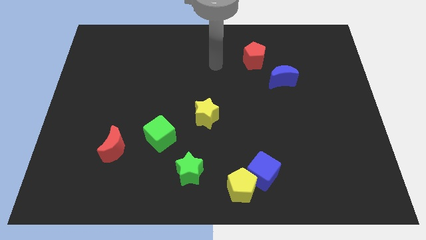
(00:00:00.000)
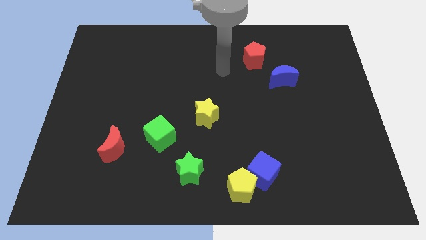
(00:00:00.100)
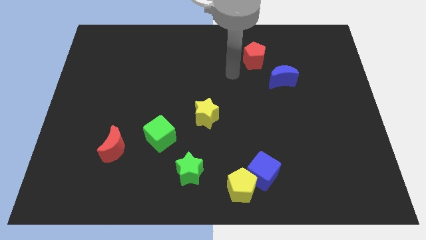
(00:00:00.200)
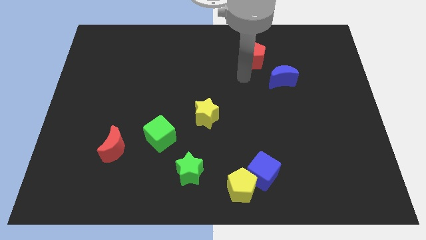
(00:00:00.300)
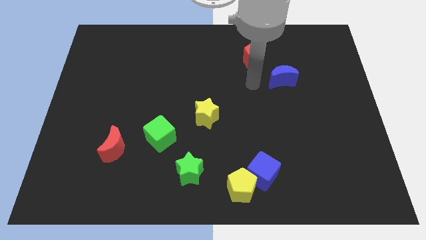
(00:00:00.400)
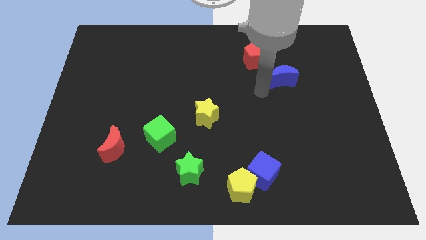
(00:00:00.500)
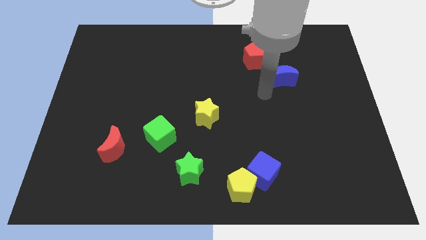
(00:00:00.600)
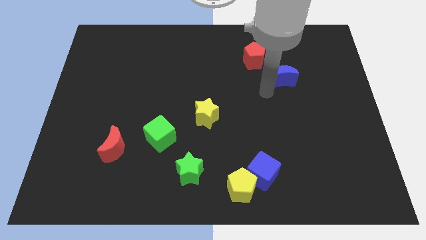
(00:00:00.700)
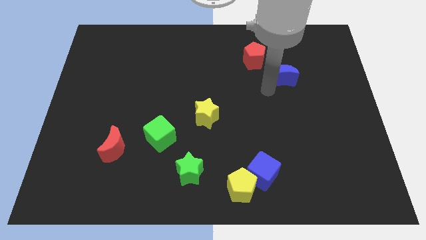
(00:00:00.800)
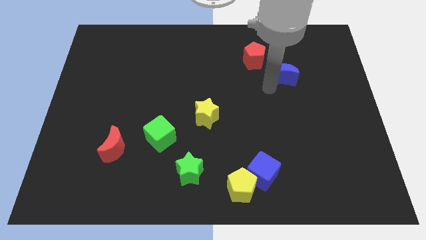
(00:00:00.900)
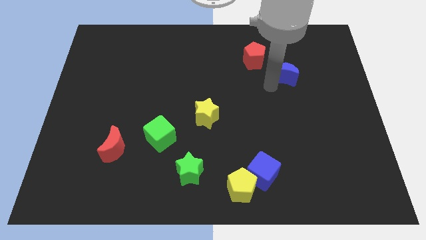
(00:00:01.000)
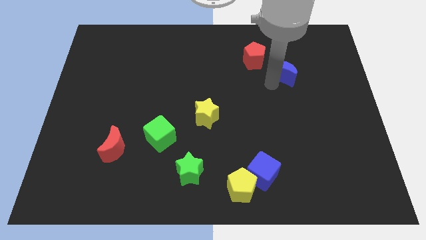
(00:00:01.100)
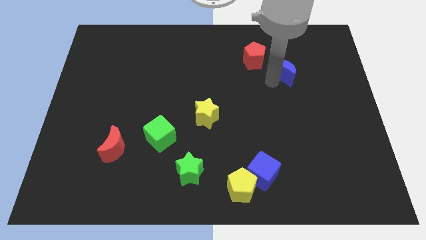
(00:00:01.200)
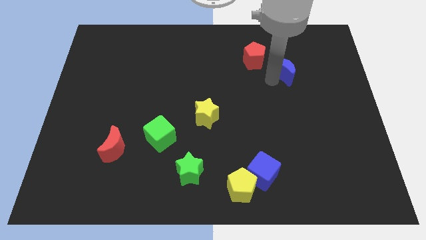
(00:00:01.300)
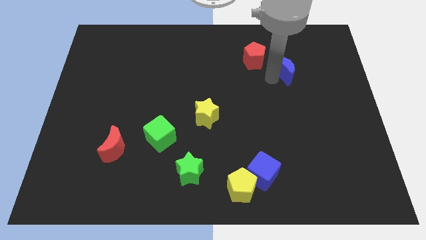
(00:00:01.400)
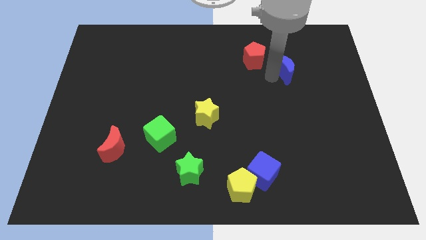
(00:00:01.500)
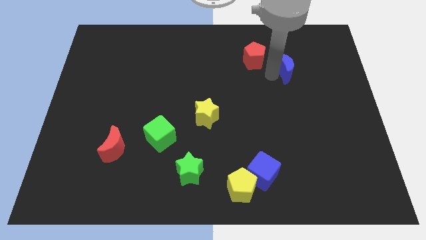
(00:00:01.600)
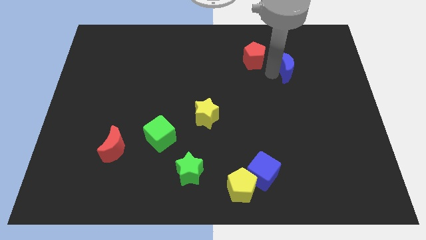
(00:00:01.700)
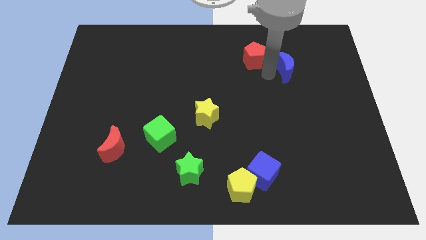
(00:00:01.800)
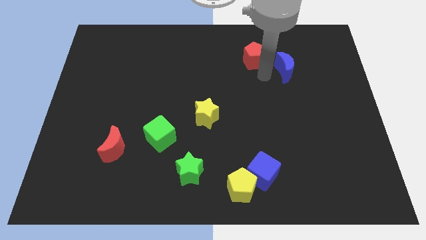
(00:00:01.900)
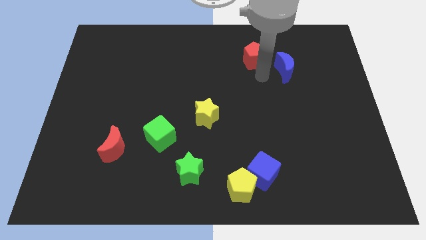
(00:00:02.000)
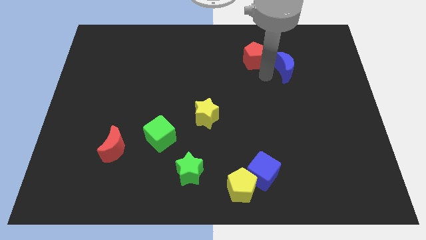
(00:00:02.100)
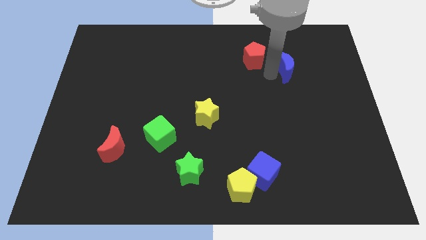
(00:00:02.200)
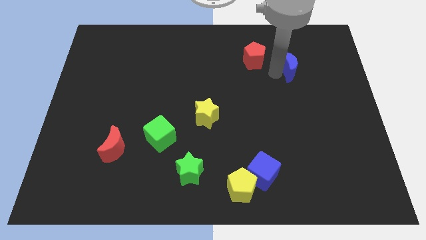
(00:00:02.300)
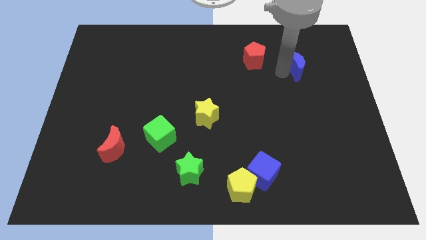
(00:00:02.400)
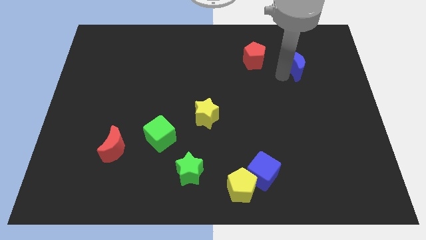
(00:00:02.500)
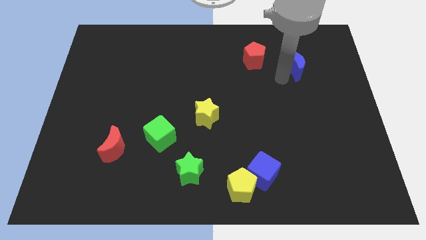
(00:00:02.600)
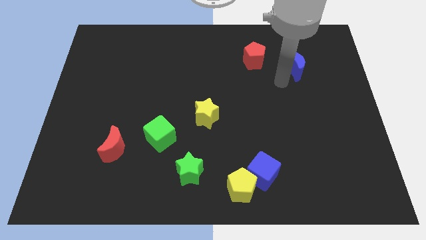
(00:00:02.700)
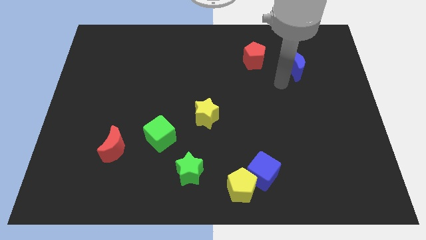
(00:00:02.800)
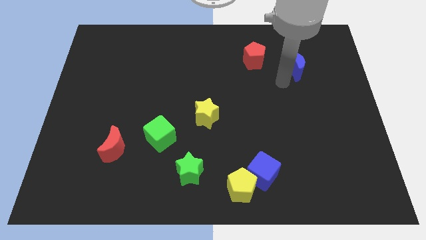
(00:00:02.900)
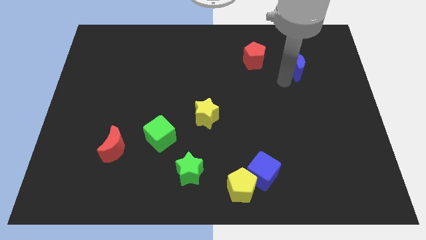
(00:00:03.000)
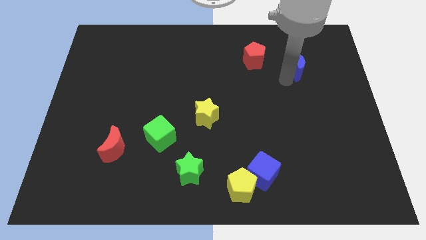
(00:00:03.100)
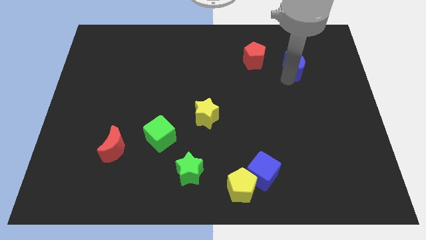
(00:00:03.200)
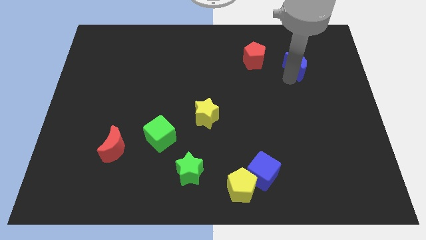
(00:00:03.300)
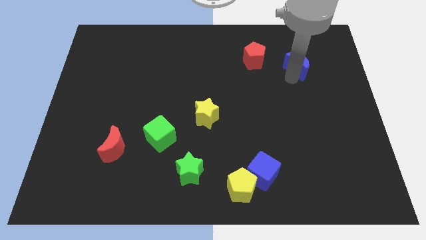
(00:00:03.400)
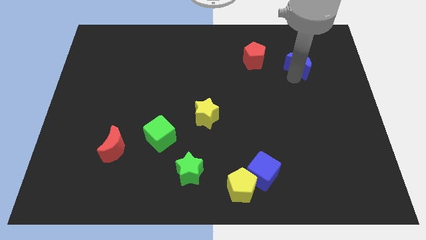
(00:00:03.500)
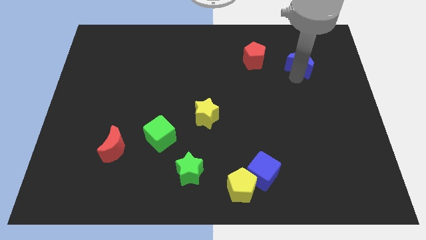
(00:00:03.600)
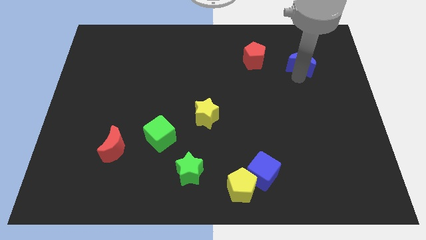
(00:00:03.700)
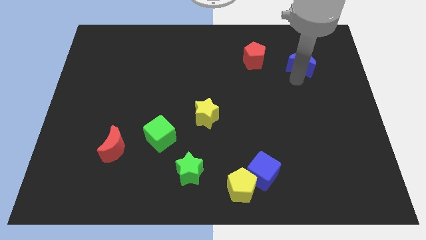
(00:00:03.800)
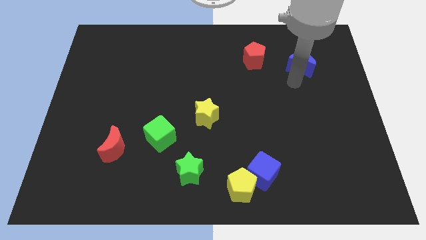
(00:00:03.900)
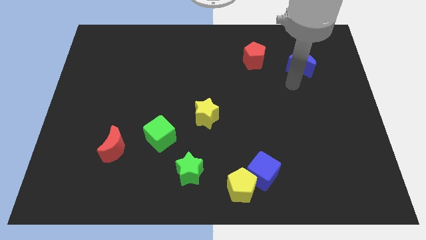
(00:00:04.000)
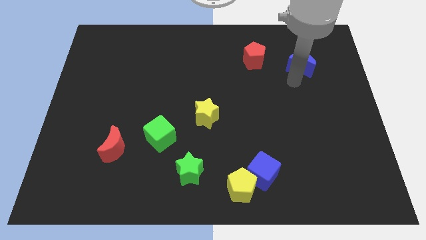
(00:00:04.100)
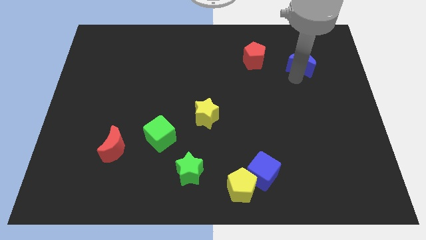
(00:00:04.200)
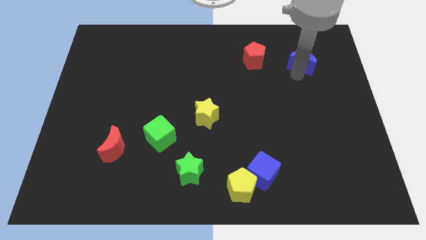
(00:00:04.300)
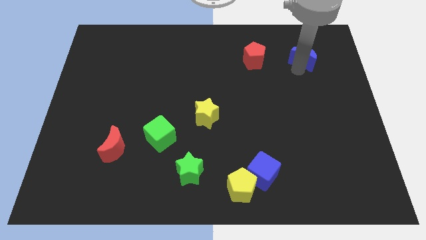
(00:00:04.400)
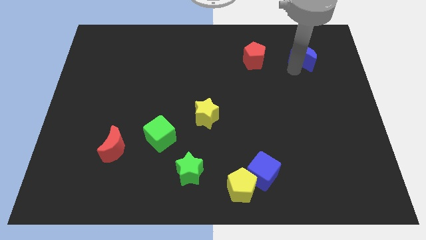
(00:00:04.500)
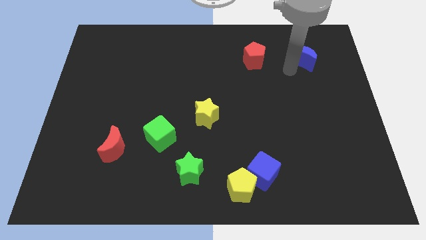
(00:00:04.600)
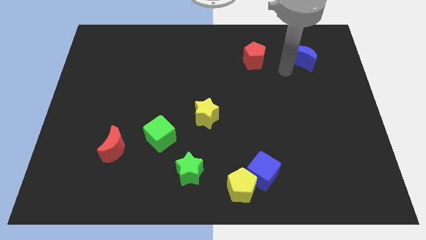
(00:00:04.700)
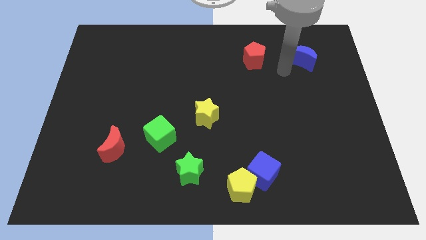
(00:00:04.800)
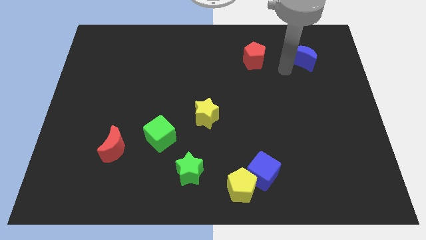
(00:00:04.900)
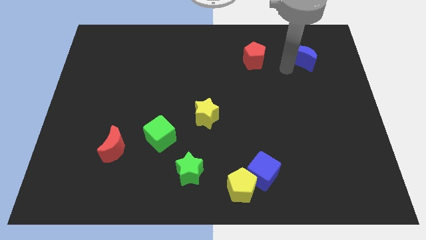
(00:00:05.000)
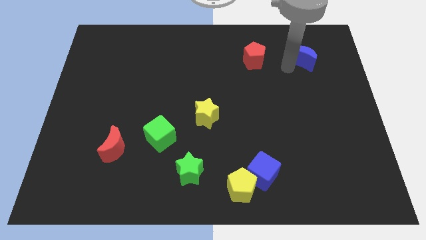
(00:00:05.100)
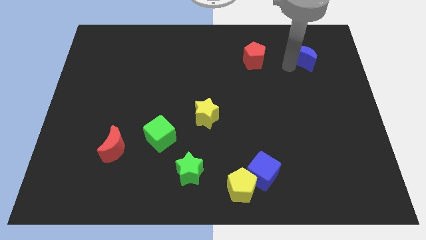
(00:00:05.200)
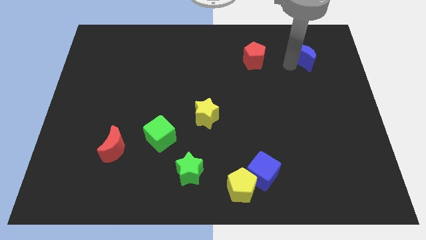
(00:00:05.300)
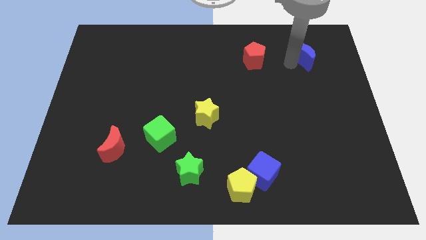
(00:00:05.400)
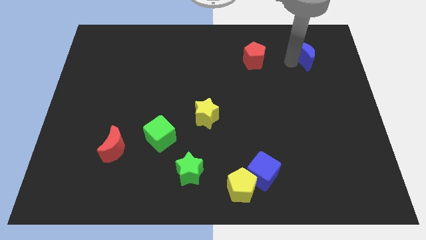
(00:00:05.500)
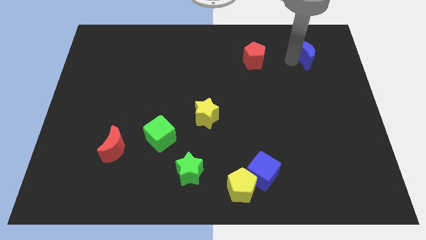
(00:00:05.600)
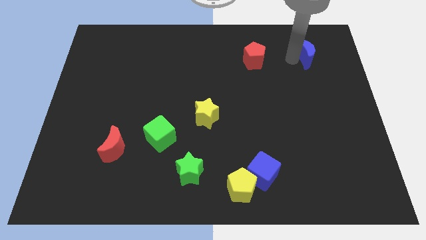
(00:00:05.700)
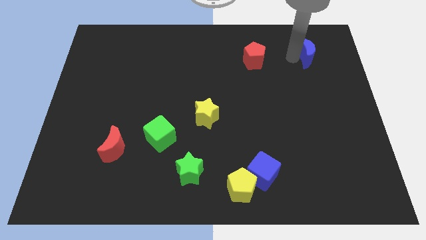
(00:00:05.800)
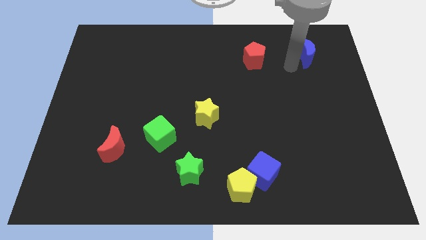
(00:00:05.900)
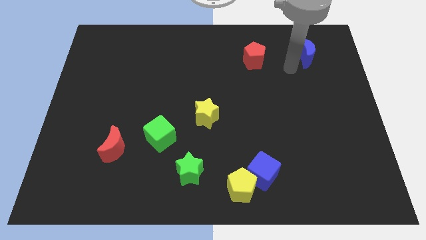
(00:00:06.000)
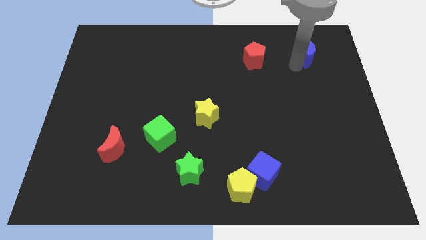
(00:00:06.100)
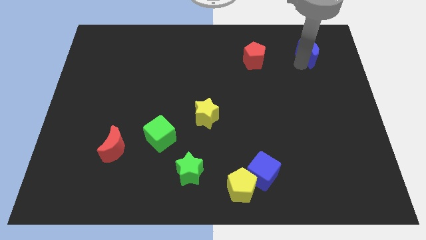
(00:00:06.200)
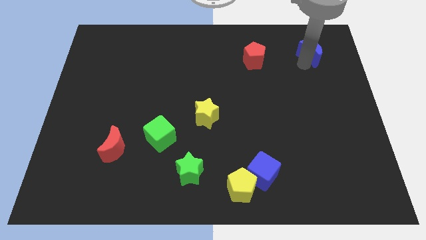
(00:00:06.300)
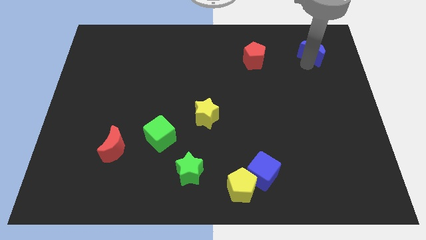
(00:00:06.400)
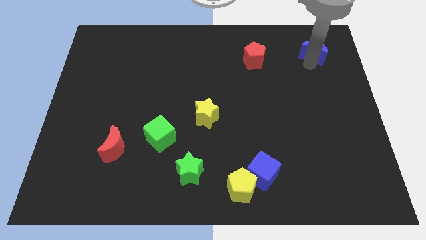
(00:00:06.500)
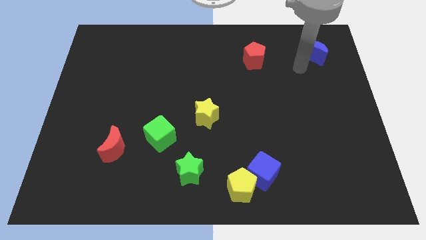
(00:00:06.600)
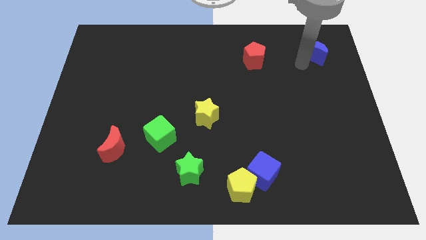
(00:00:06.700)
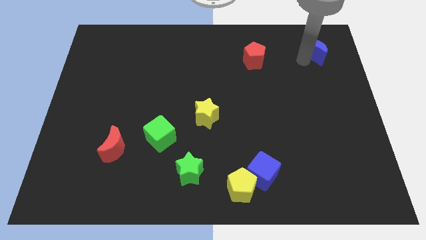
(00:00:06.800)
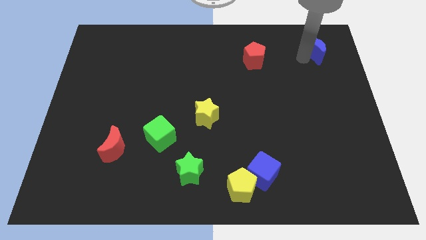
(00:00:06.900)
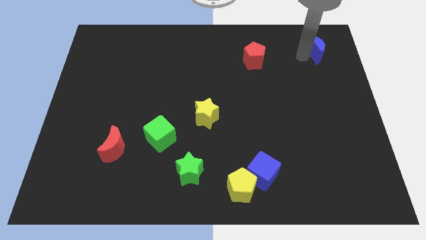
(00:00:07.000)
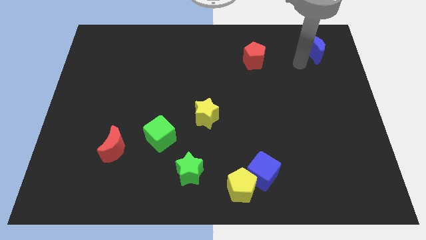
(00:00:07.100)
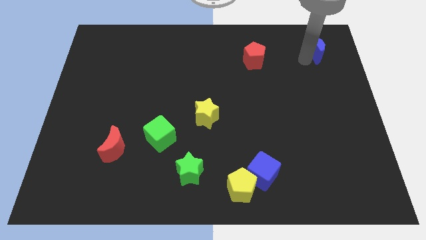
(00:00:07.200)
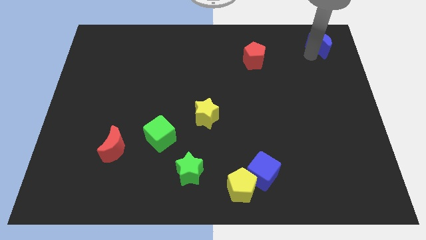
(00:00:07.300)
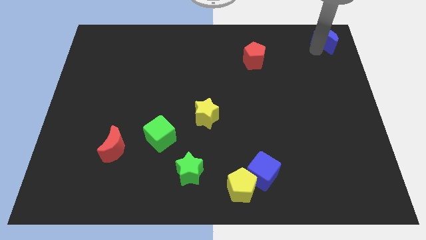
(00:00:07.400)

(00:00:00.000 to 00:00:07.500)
slide the blue moon to the upper right corner
